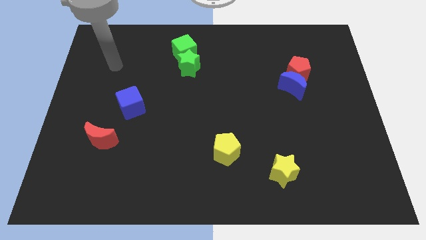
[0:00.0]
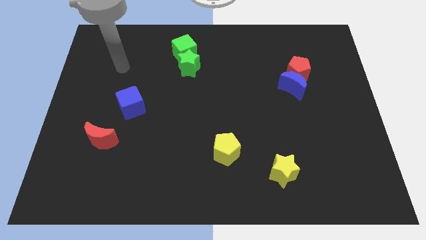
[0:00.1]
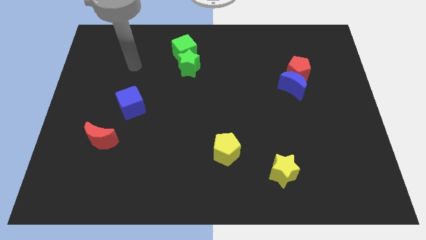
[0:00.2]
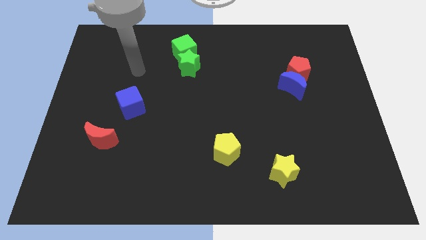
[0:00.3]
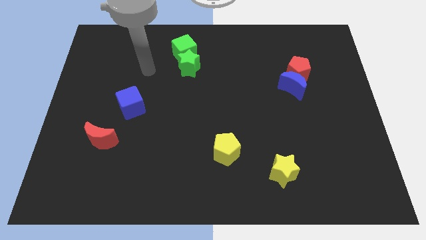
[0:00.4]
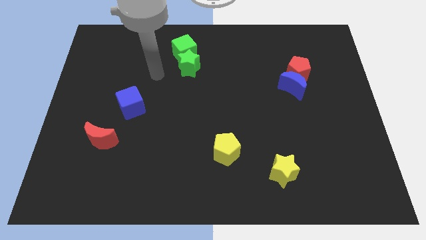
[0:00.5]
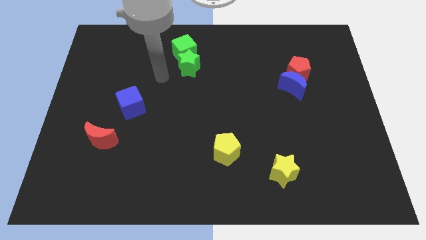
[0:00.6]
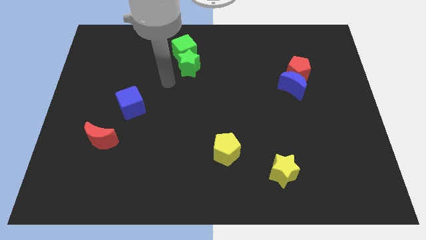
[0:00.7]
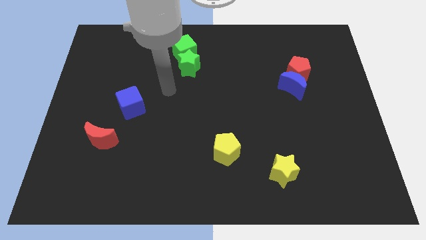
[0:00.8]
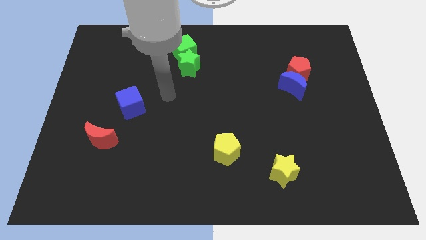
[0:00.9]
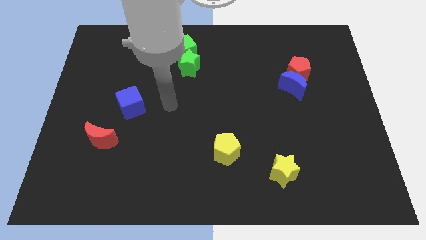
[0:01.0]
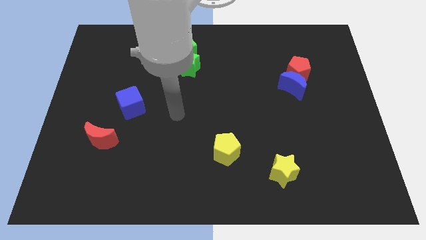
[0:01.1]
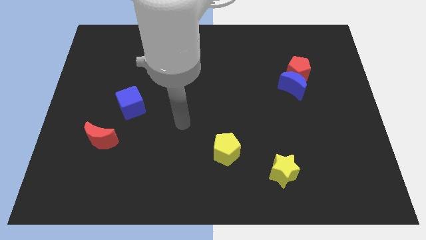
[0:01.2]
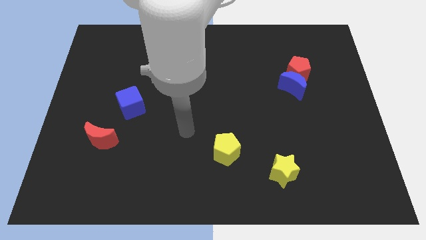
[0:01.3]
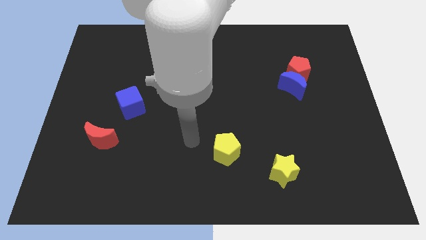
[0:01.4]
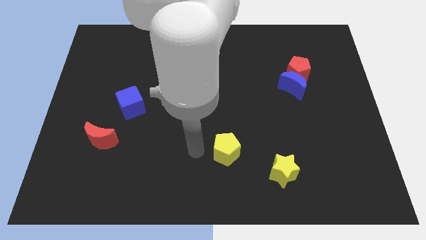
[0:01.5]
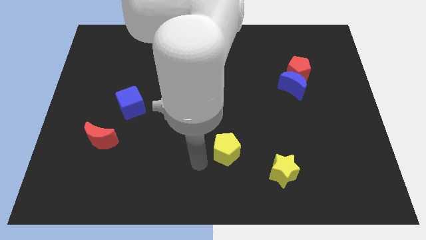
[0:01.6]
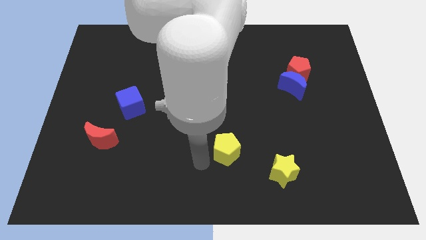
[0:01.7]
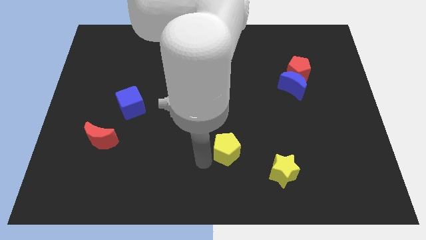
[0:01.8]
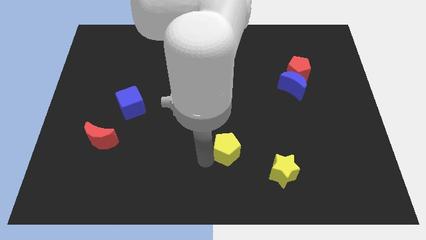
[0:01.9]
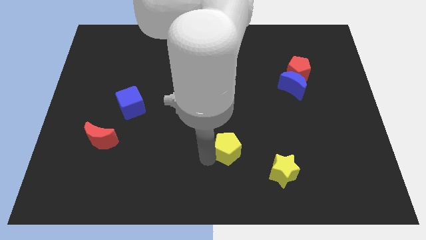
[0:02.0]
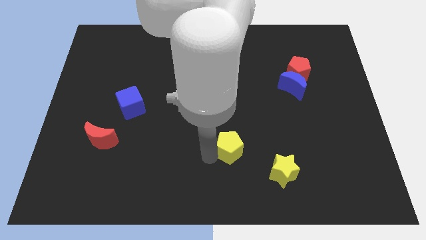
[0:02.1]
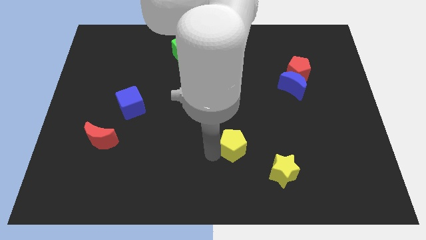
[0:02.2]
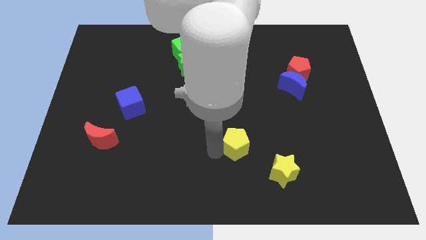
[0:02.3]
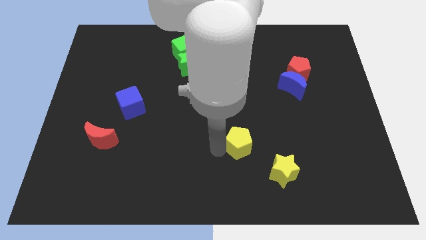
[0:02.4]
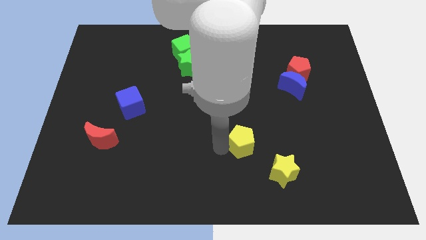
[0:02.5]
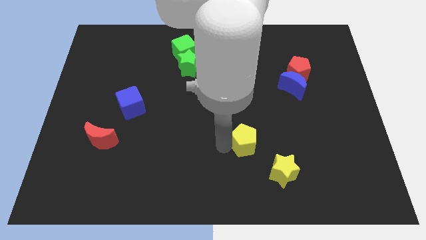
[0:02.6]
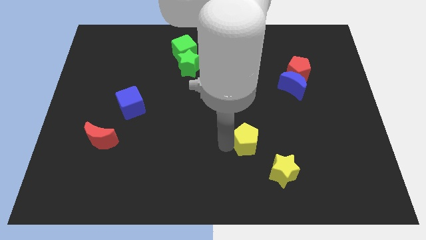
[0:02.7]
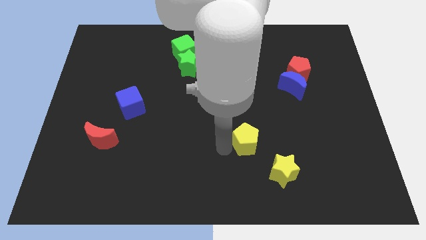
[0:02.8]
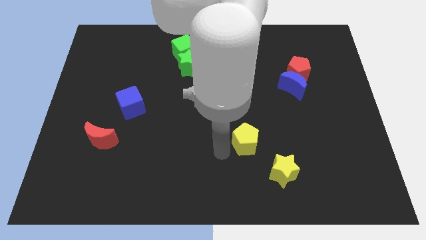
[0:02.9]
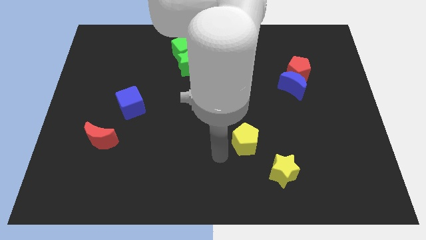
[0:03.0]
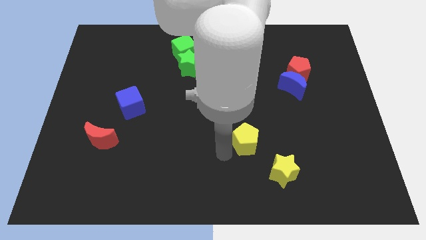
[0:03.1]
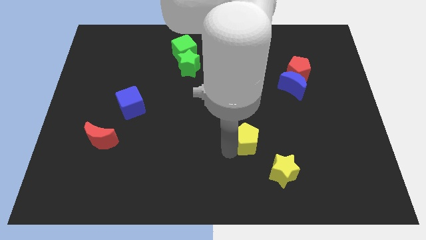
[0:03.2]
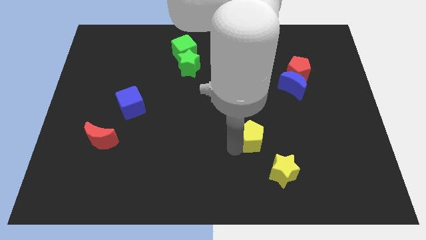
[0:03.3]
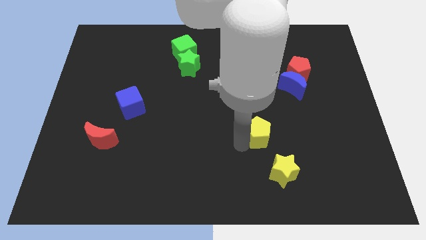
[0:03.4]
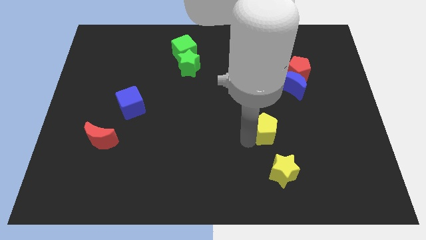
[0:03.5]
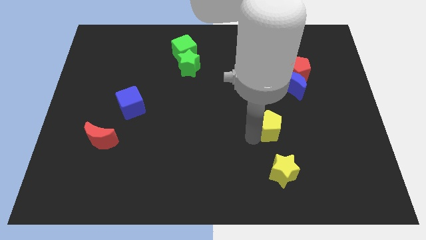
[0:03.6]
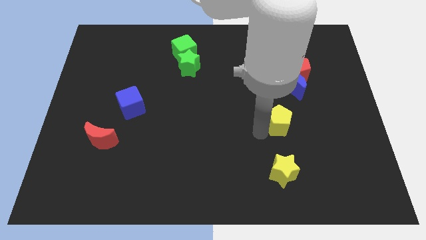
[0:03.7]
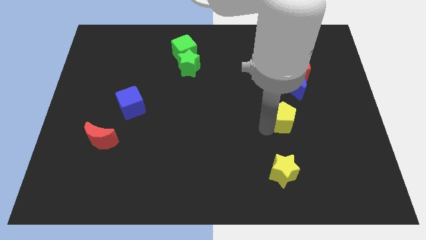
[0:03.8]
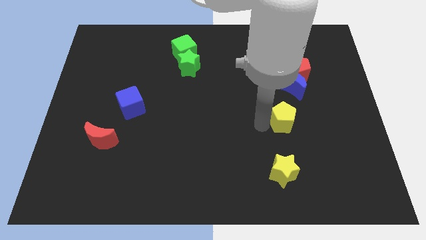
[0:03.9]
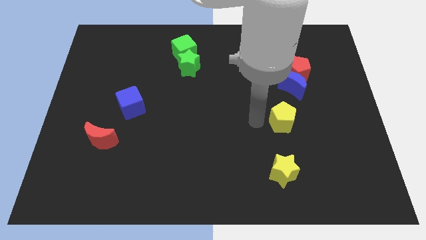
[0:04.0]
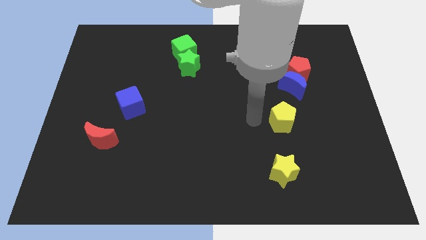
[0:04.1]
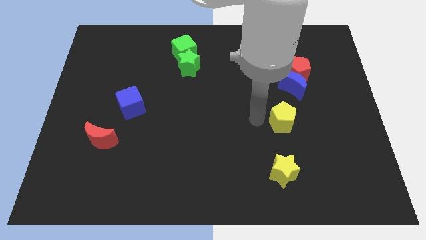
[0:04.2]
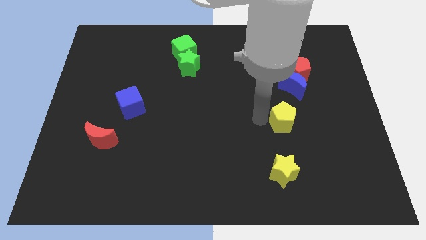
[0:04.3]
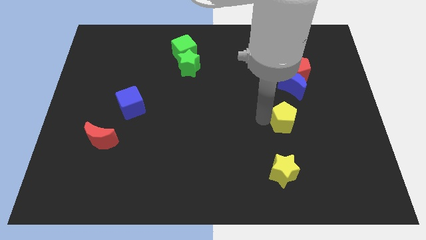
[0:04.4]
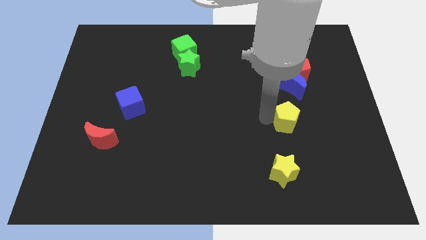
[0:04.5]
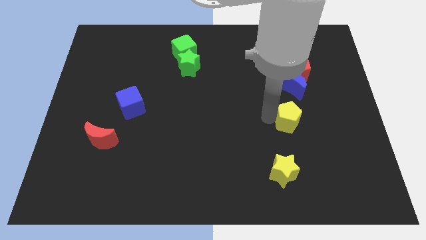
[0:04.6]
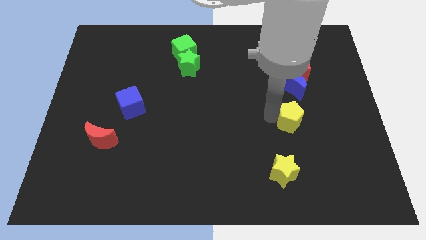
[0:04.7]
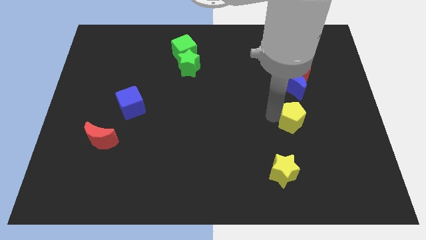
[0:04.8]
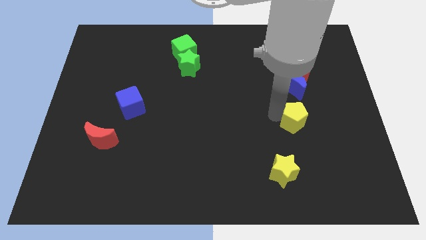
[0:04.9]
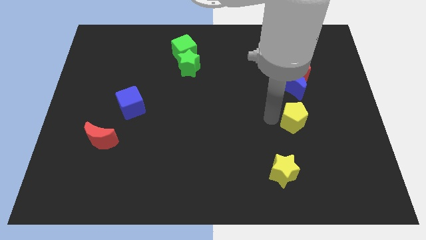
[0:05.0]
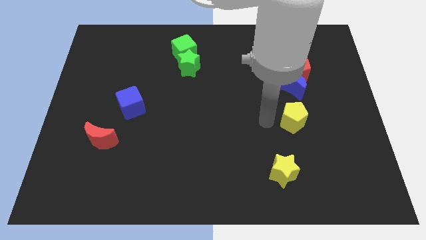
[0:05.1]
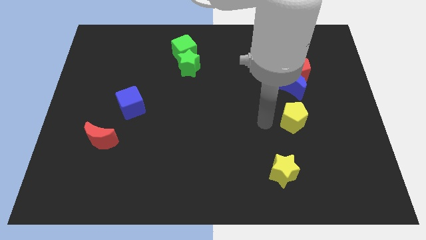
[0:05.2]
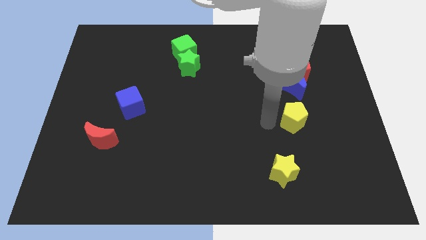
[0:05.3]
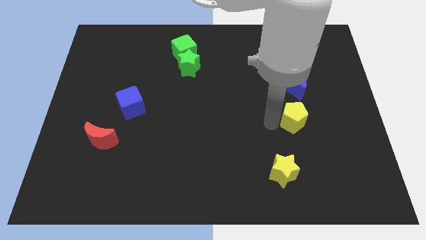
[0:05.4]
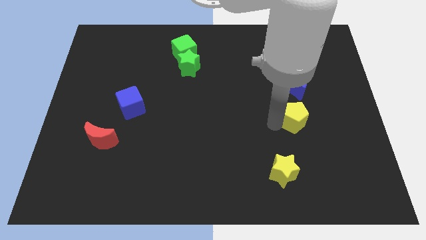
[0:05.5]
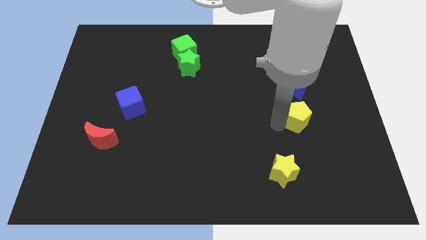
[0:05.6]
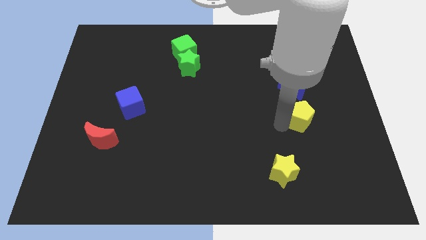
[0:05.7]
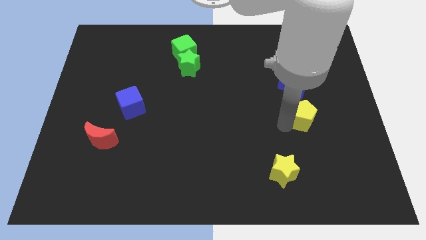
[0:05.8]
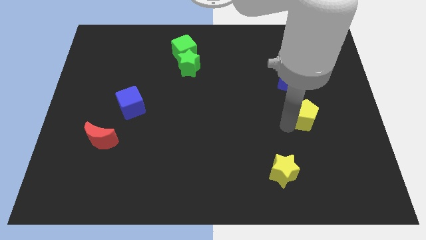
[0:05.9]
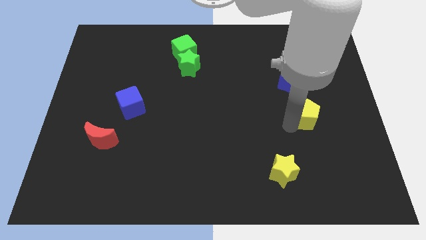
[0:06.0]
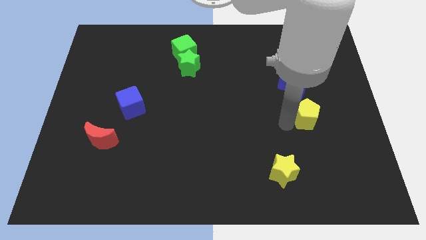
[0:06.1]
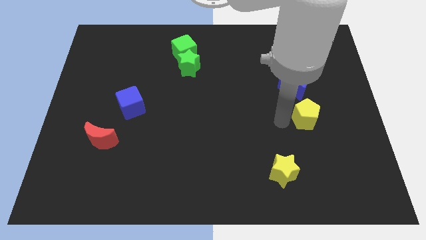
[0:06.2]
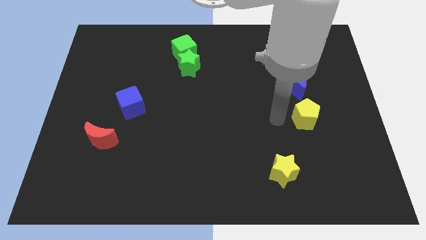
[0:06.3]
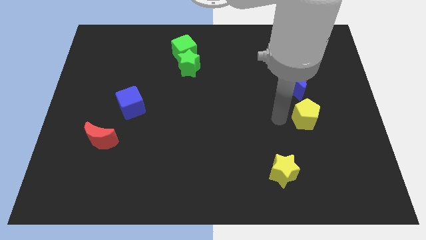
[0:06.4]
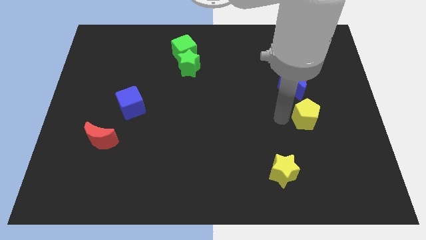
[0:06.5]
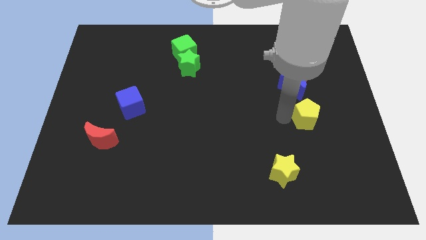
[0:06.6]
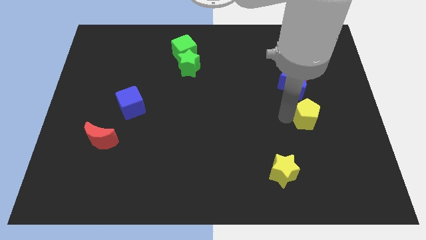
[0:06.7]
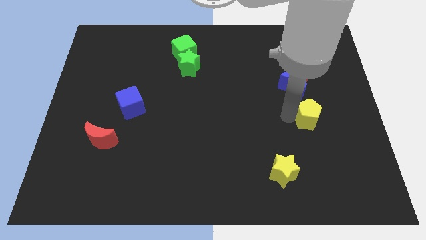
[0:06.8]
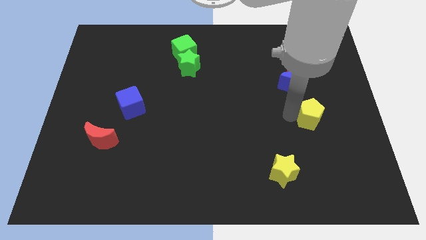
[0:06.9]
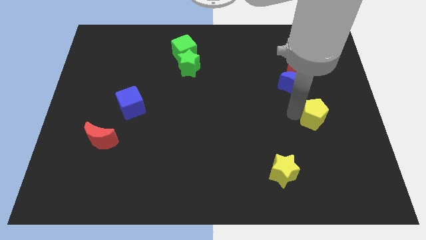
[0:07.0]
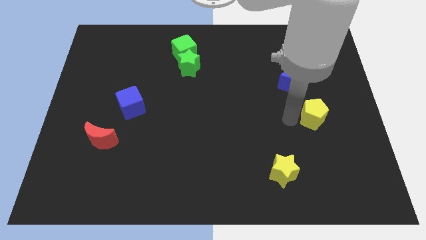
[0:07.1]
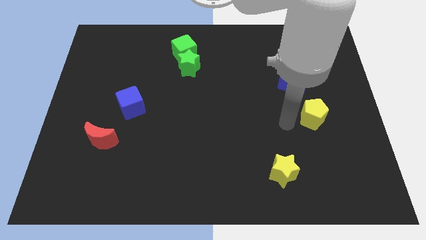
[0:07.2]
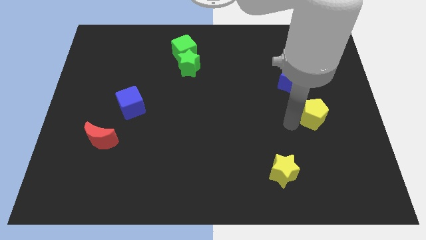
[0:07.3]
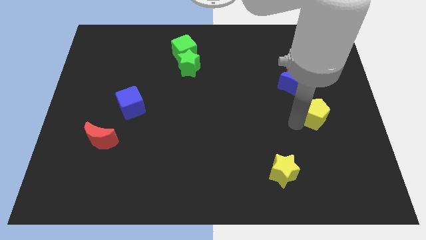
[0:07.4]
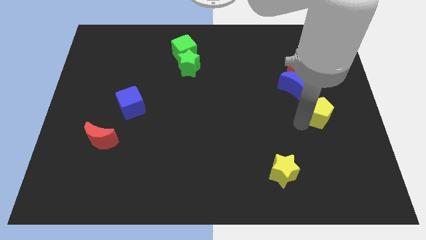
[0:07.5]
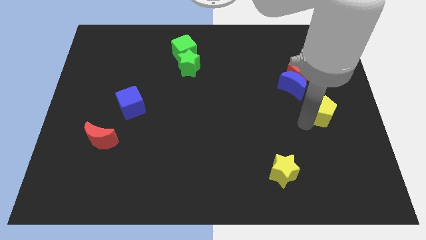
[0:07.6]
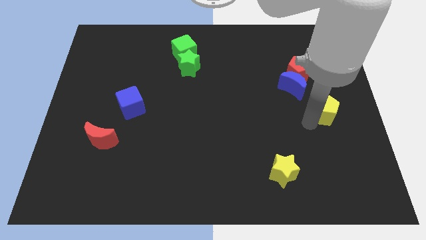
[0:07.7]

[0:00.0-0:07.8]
slide the yellow pentagon to the right side of the board
